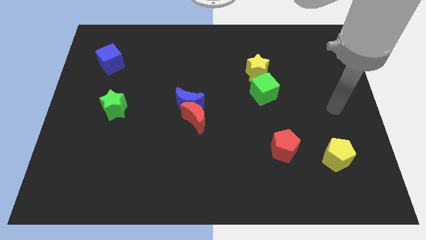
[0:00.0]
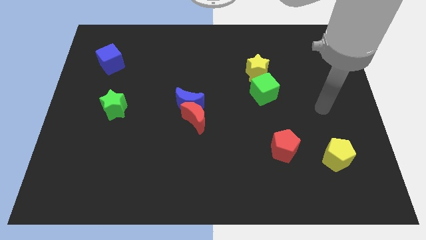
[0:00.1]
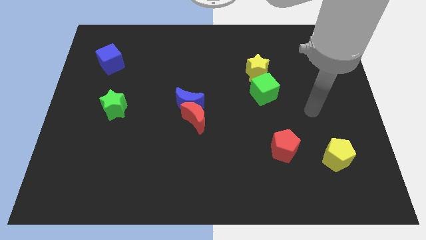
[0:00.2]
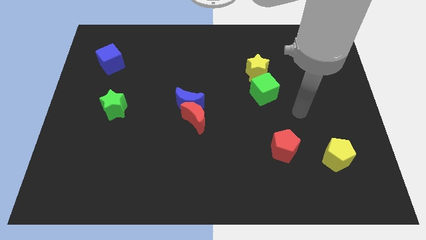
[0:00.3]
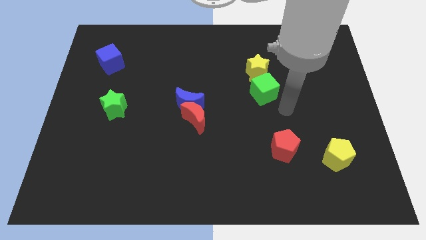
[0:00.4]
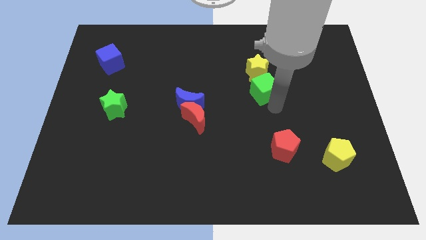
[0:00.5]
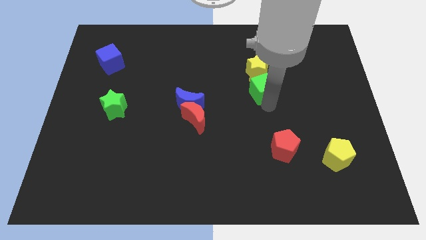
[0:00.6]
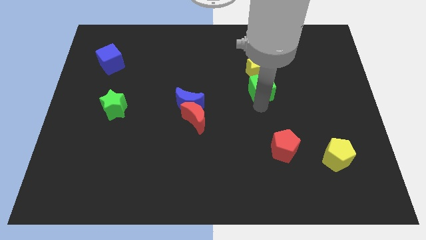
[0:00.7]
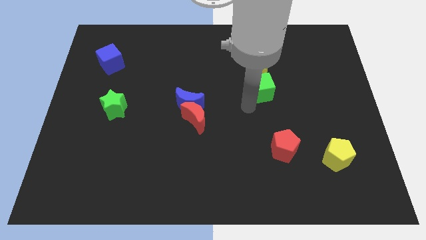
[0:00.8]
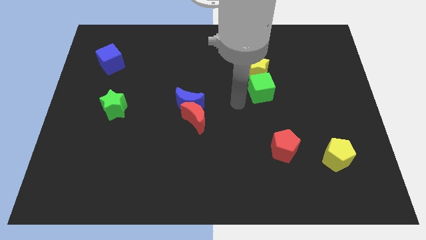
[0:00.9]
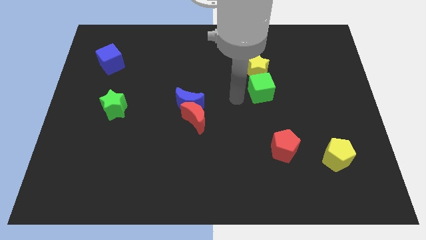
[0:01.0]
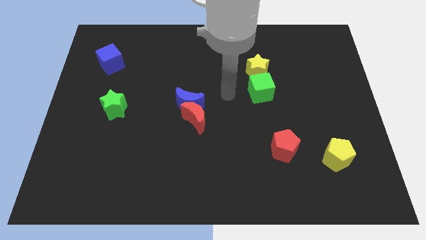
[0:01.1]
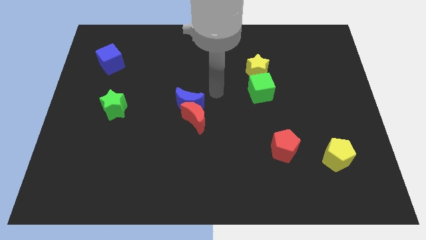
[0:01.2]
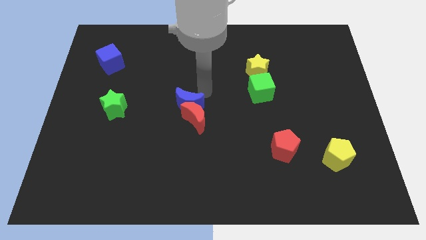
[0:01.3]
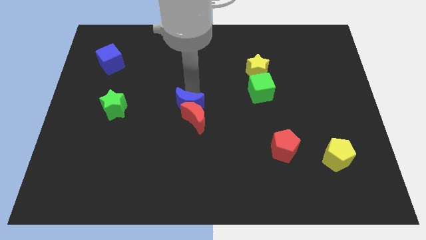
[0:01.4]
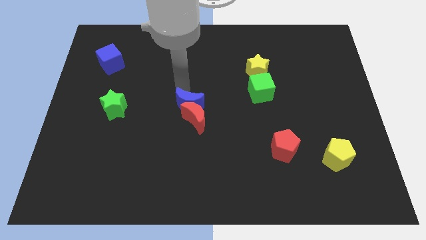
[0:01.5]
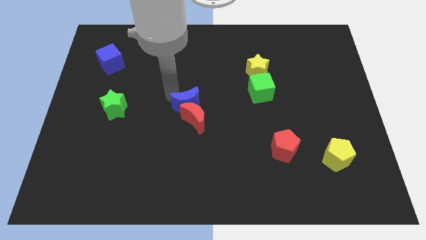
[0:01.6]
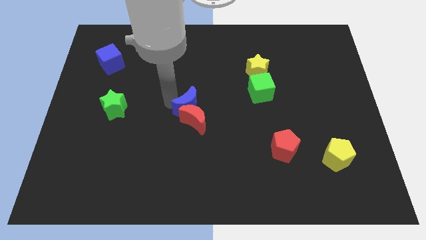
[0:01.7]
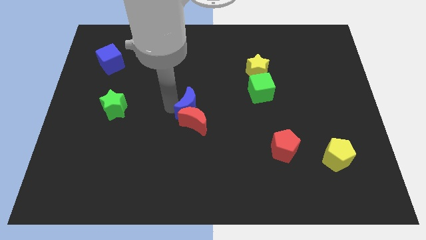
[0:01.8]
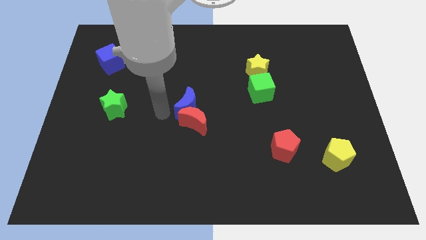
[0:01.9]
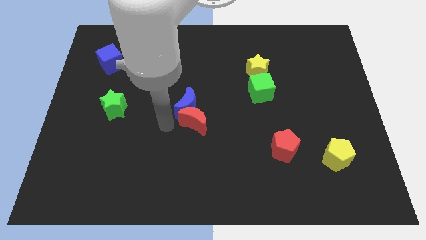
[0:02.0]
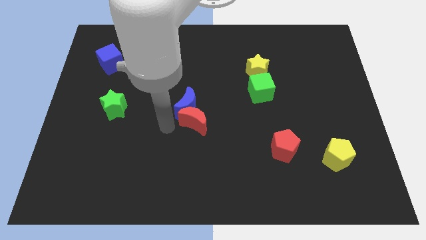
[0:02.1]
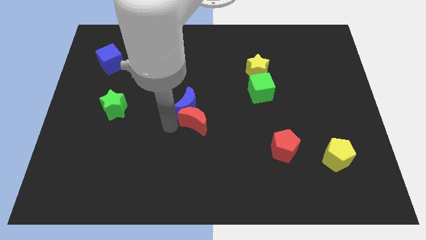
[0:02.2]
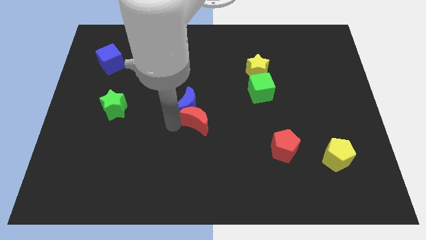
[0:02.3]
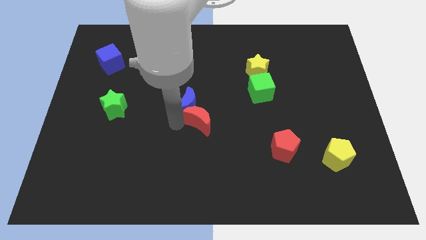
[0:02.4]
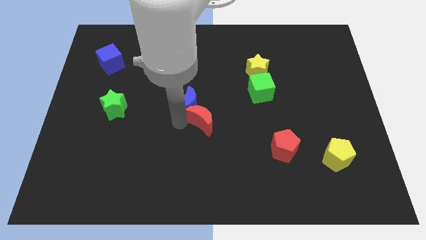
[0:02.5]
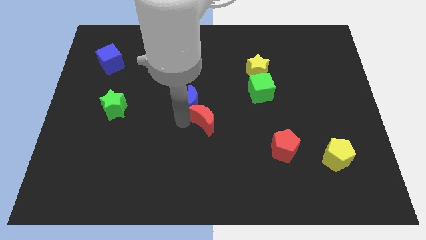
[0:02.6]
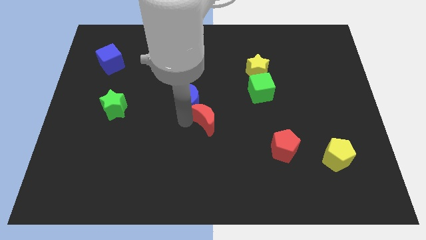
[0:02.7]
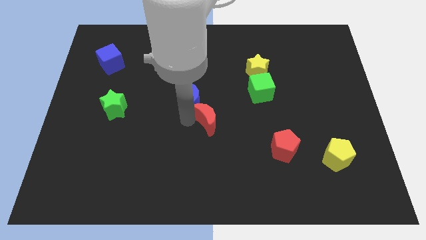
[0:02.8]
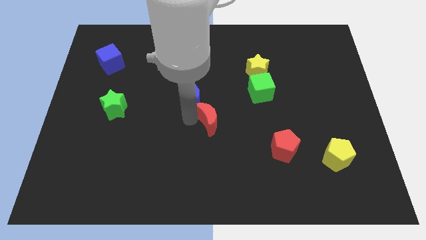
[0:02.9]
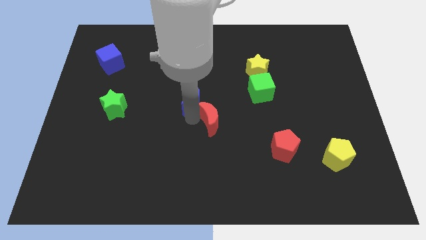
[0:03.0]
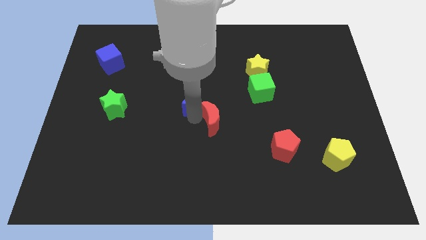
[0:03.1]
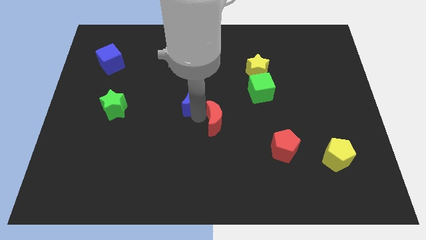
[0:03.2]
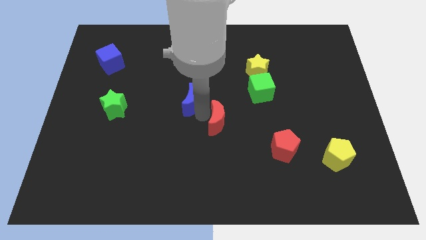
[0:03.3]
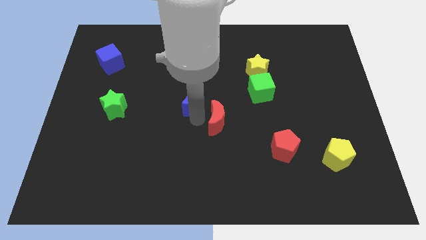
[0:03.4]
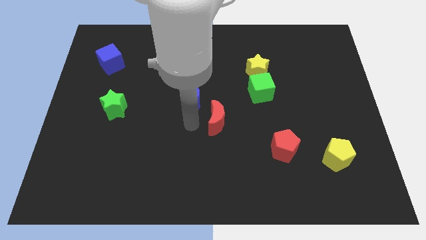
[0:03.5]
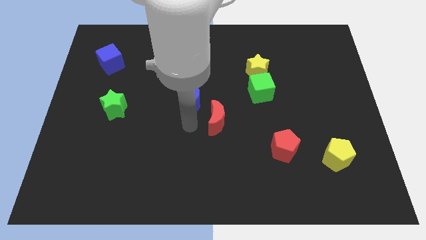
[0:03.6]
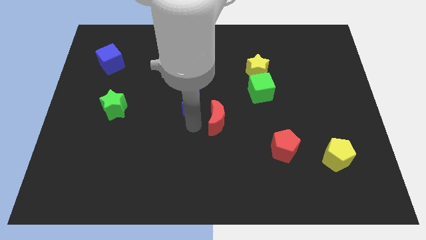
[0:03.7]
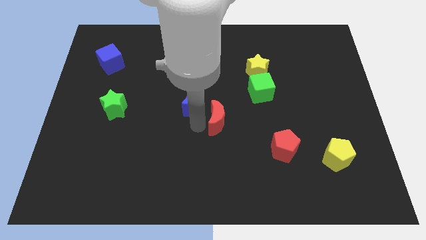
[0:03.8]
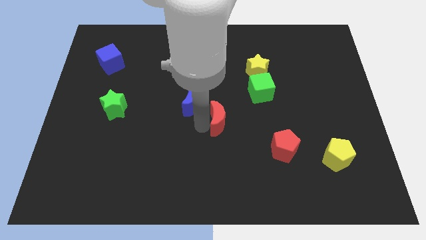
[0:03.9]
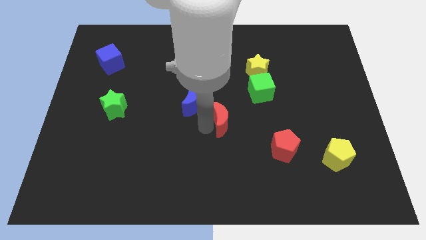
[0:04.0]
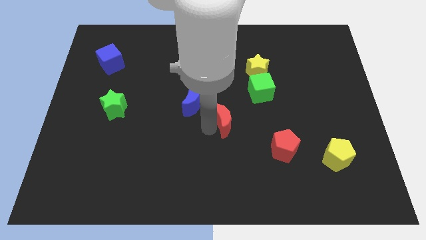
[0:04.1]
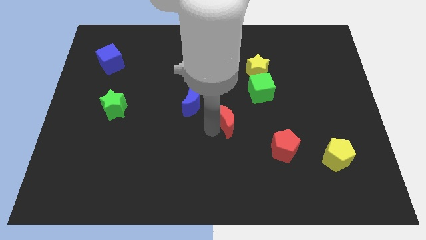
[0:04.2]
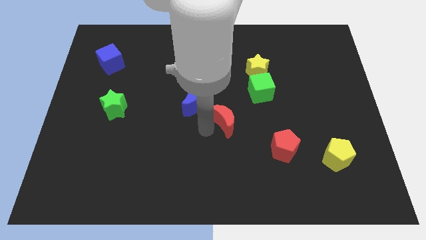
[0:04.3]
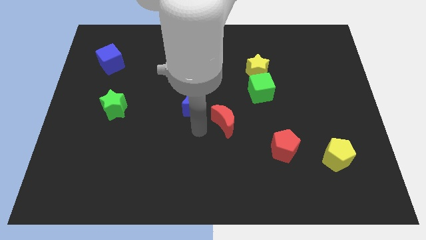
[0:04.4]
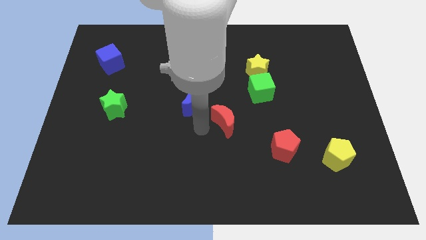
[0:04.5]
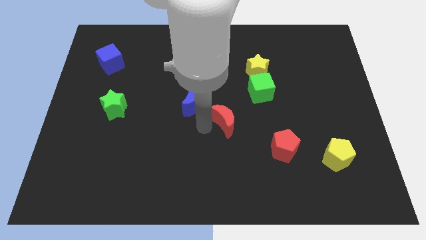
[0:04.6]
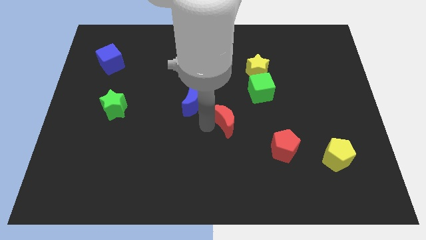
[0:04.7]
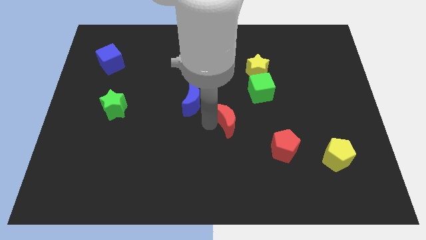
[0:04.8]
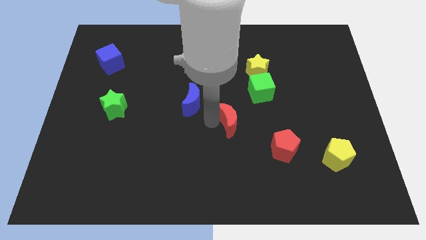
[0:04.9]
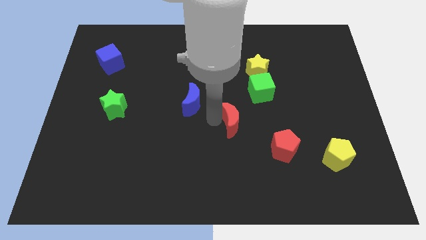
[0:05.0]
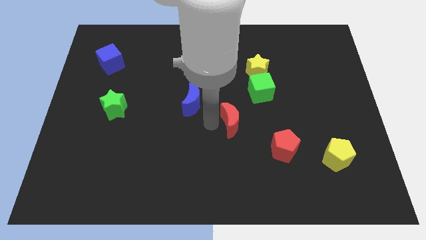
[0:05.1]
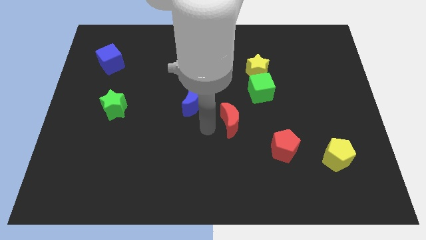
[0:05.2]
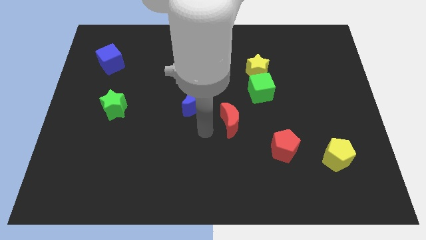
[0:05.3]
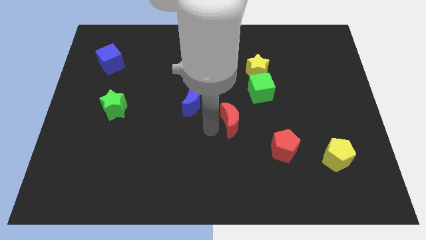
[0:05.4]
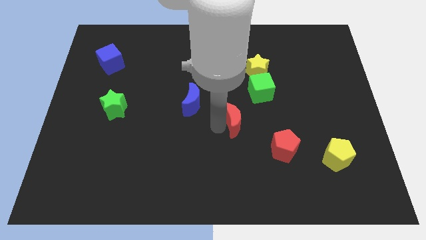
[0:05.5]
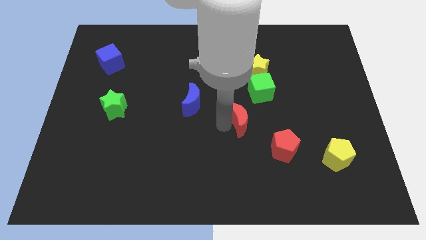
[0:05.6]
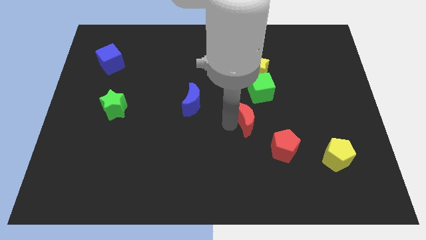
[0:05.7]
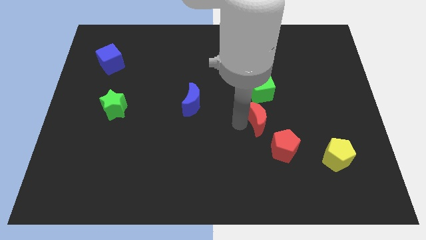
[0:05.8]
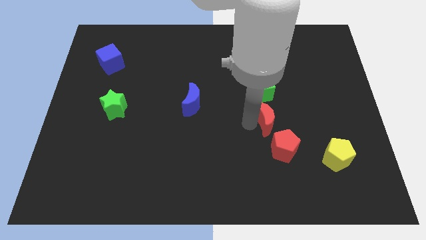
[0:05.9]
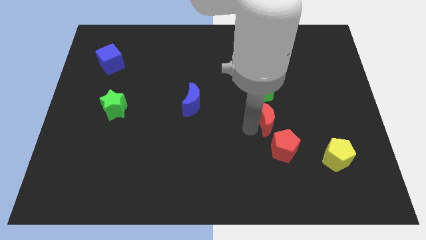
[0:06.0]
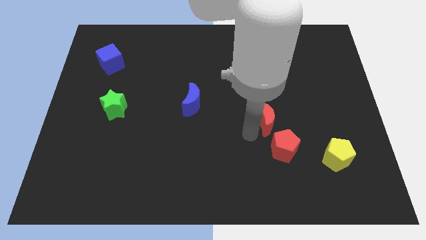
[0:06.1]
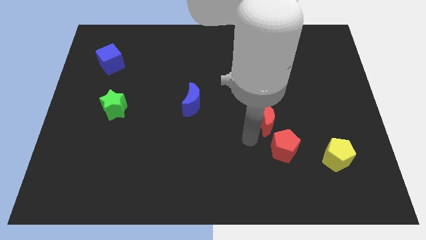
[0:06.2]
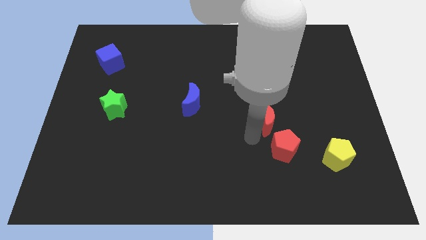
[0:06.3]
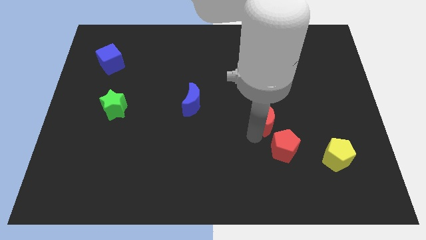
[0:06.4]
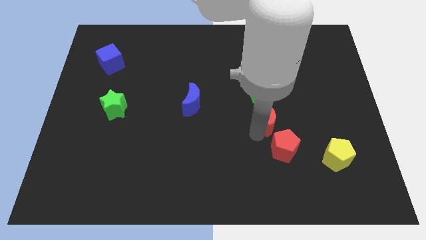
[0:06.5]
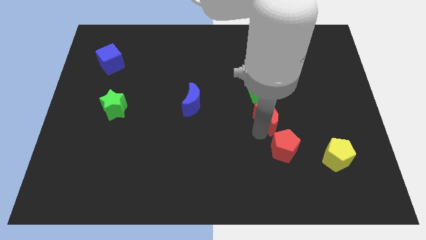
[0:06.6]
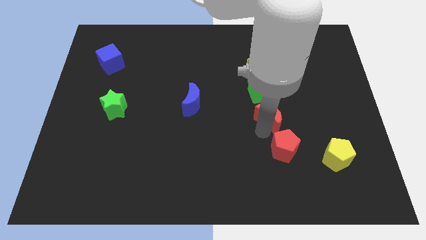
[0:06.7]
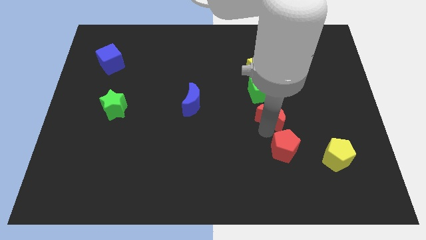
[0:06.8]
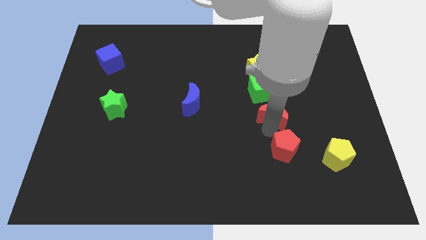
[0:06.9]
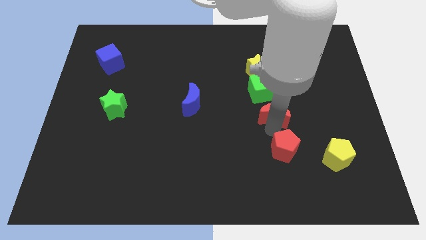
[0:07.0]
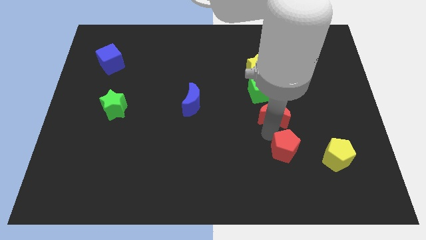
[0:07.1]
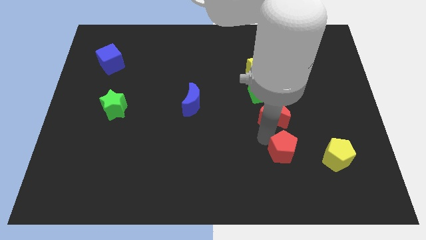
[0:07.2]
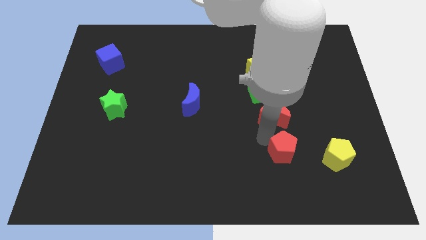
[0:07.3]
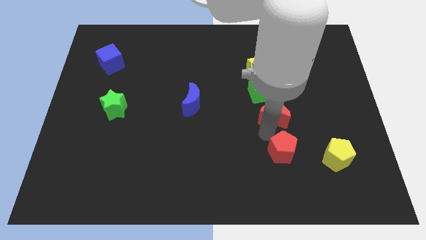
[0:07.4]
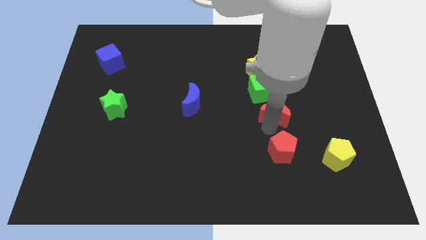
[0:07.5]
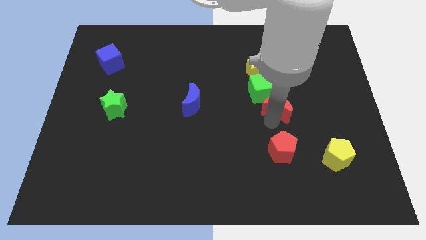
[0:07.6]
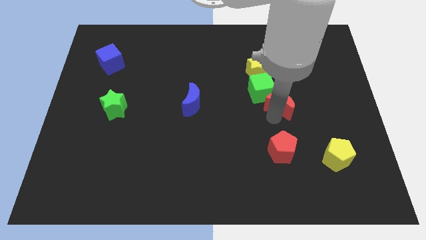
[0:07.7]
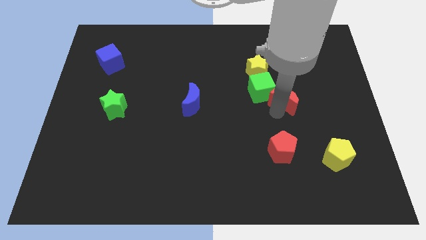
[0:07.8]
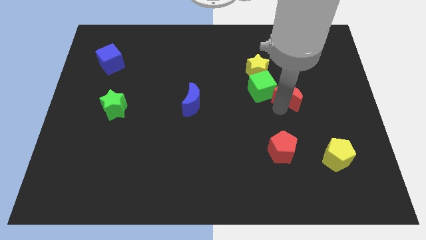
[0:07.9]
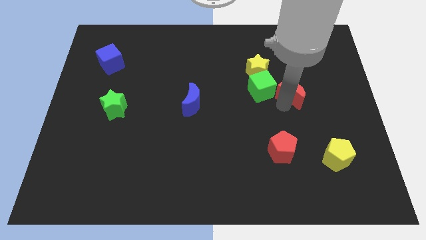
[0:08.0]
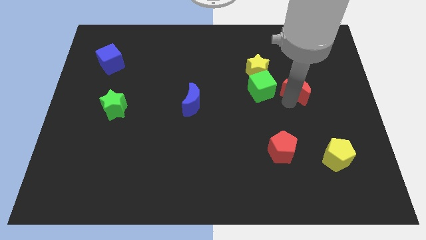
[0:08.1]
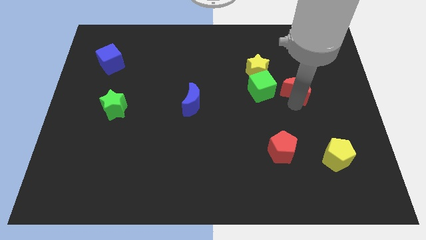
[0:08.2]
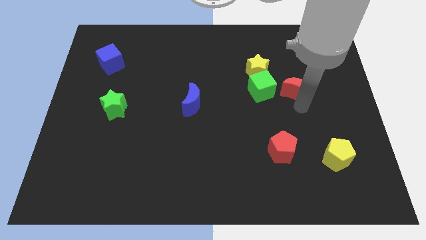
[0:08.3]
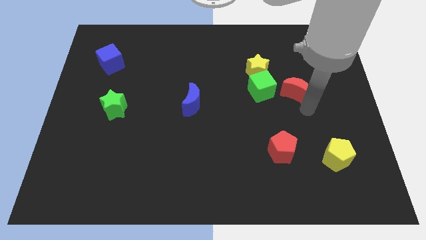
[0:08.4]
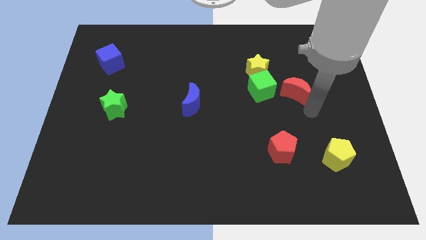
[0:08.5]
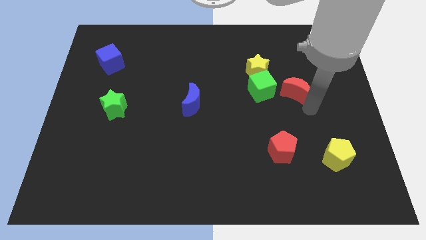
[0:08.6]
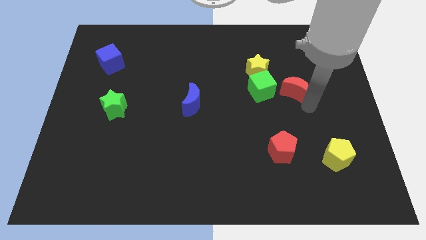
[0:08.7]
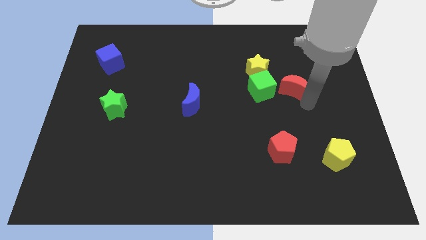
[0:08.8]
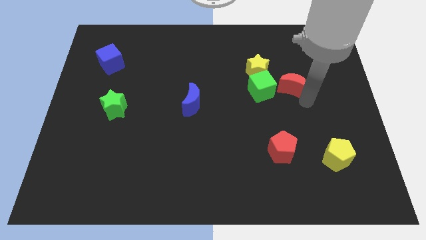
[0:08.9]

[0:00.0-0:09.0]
move the red moon diagonally up and to the right of the green cube
